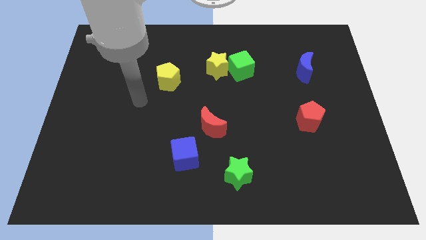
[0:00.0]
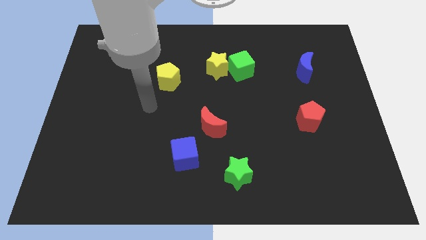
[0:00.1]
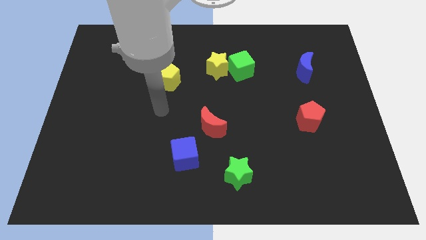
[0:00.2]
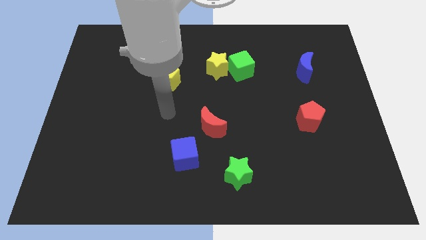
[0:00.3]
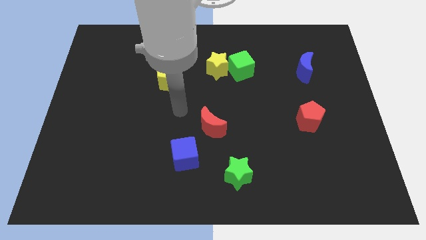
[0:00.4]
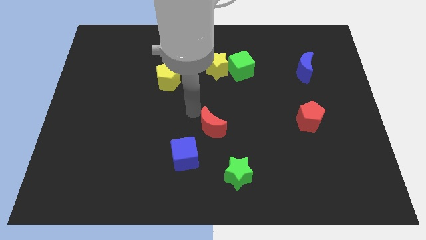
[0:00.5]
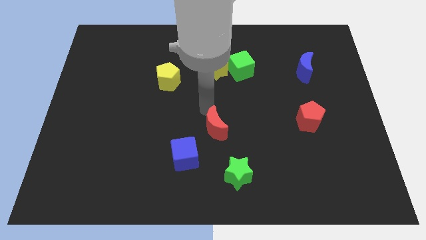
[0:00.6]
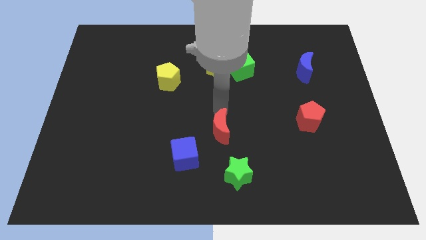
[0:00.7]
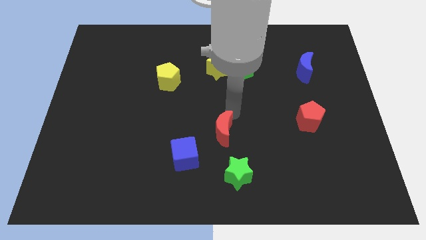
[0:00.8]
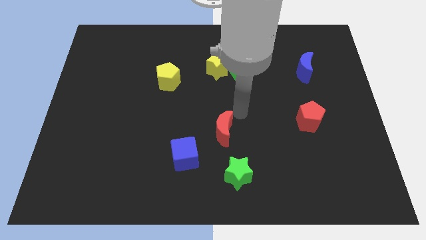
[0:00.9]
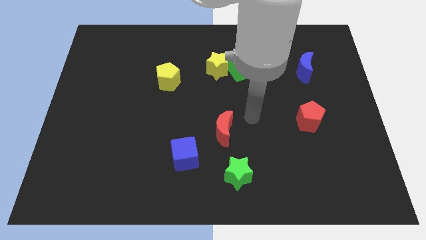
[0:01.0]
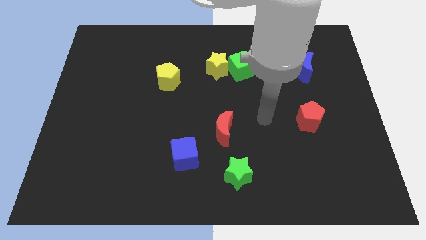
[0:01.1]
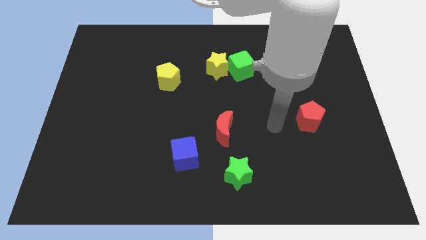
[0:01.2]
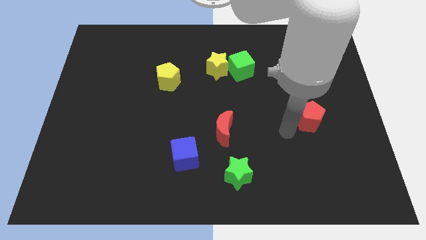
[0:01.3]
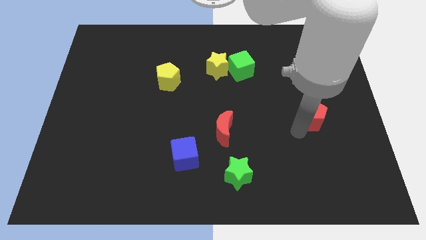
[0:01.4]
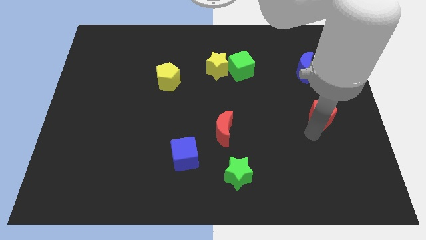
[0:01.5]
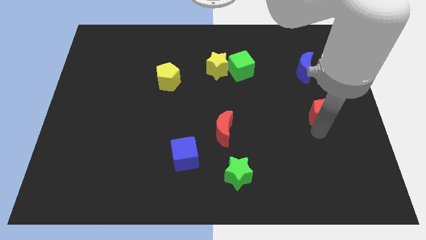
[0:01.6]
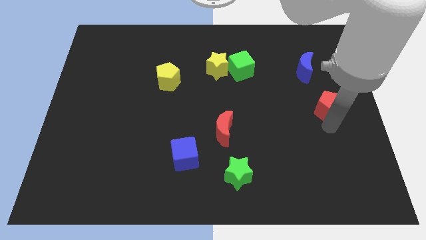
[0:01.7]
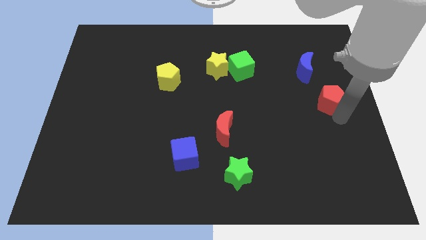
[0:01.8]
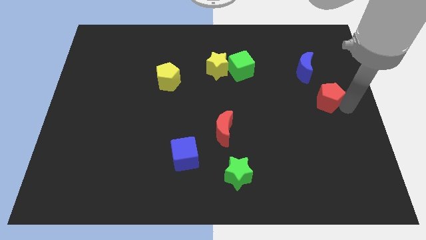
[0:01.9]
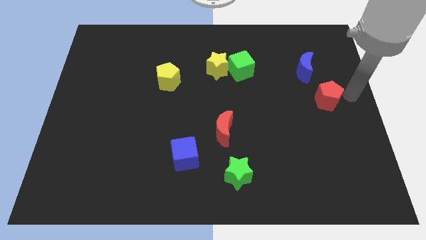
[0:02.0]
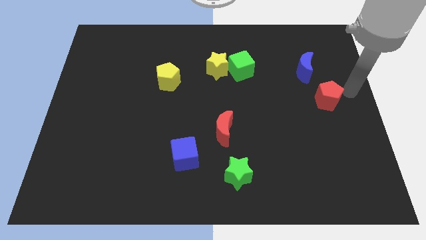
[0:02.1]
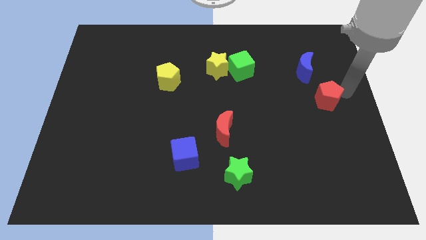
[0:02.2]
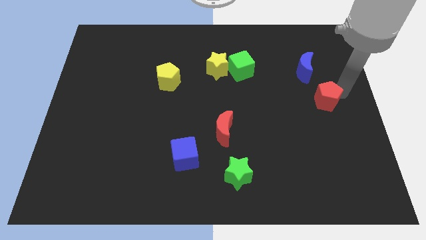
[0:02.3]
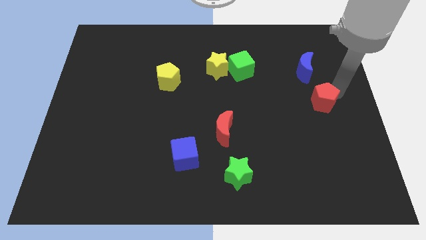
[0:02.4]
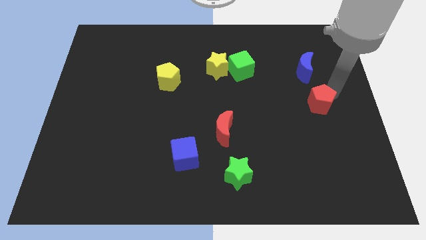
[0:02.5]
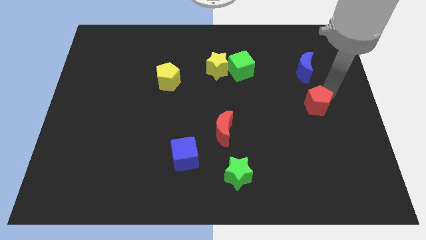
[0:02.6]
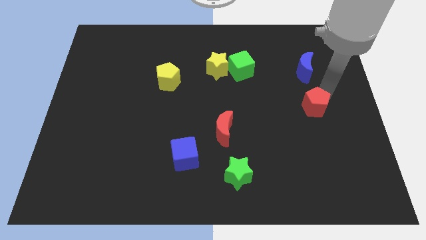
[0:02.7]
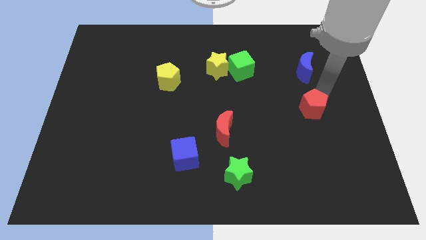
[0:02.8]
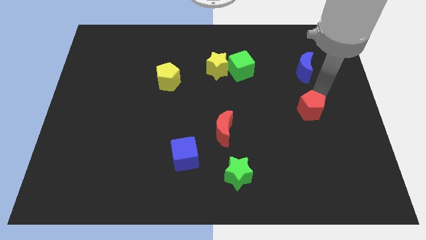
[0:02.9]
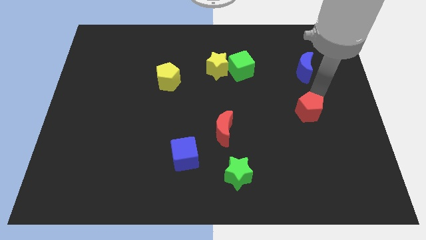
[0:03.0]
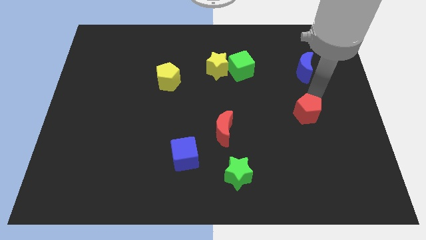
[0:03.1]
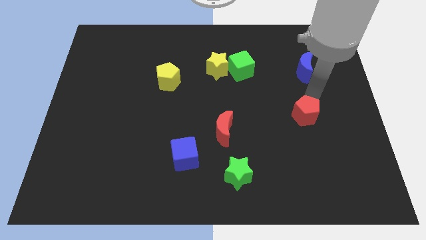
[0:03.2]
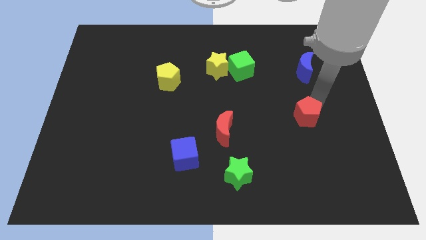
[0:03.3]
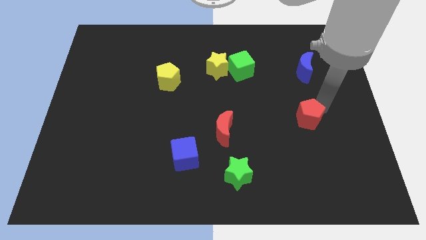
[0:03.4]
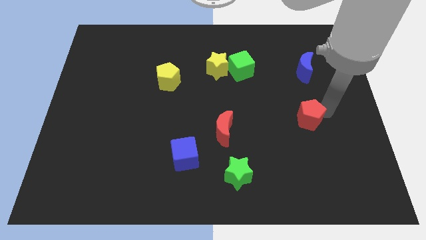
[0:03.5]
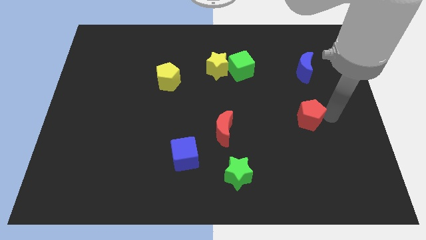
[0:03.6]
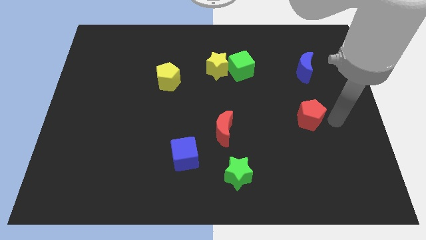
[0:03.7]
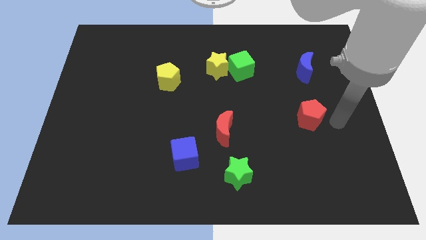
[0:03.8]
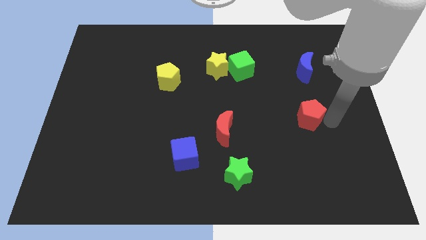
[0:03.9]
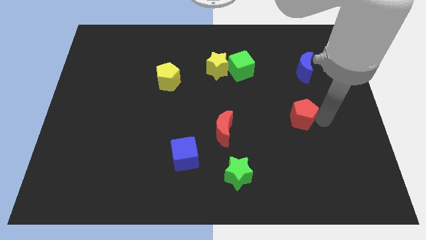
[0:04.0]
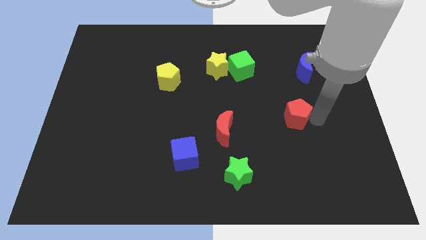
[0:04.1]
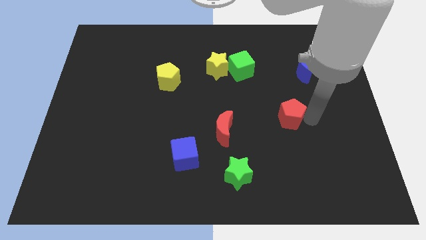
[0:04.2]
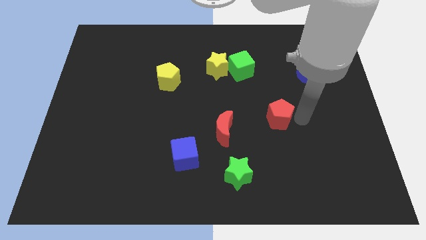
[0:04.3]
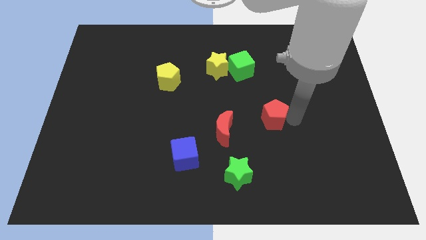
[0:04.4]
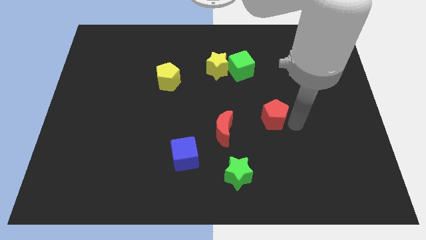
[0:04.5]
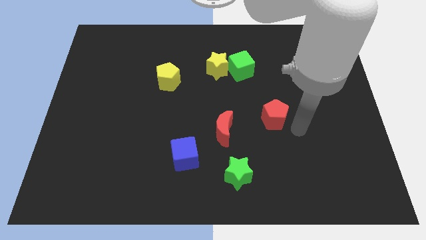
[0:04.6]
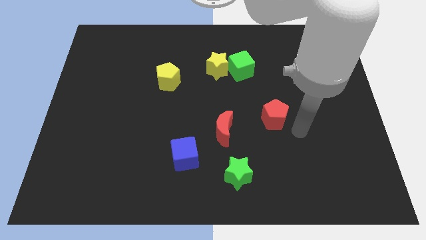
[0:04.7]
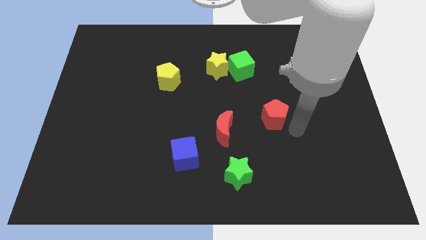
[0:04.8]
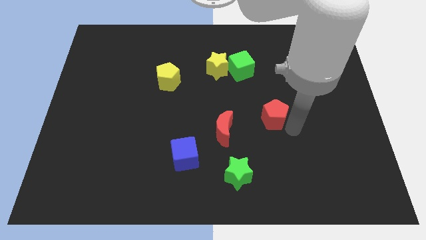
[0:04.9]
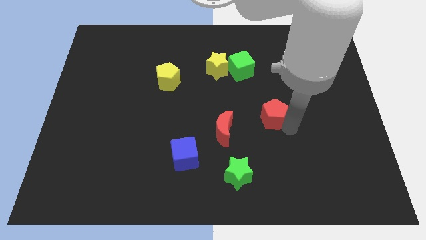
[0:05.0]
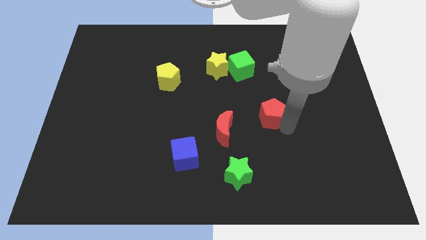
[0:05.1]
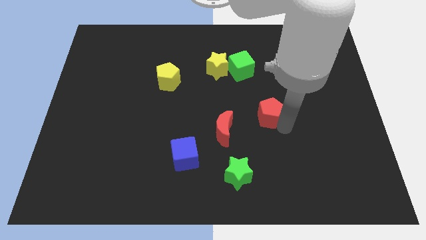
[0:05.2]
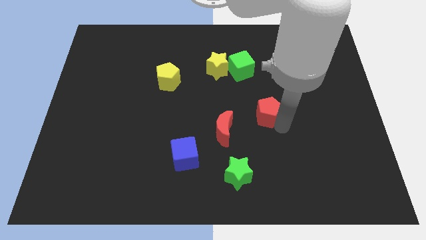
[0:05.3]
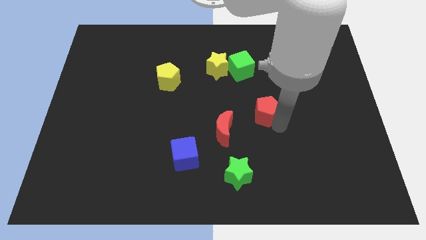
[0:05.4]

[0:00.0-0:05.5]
slide the red pentagon to the middle of the board

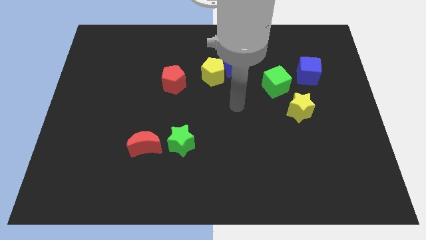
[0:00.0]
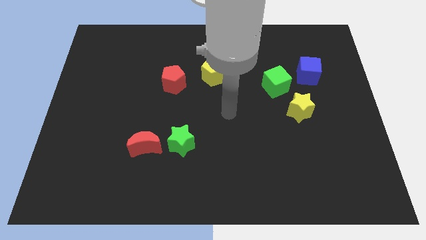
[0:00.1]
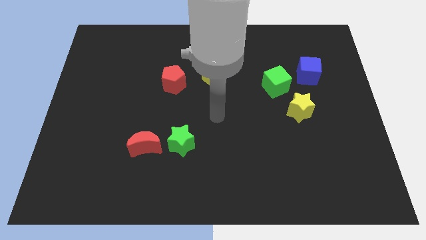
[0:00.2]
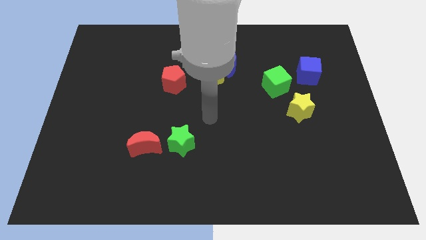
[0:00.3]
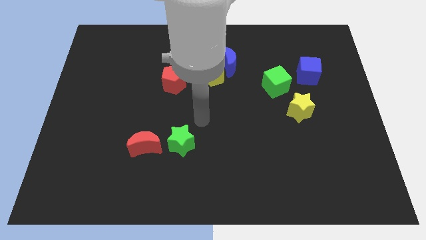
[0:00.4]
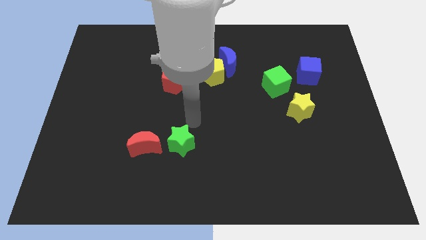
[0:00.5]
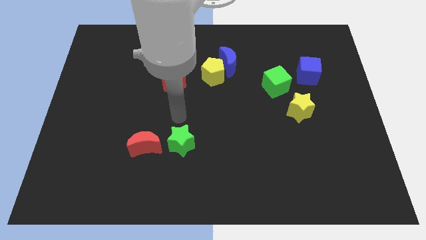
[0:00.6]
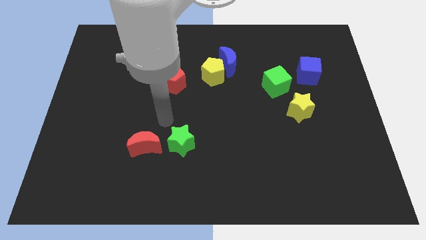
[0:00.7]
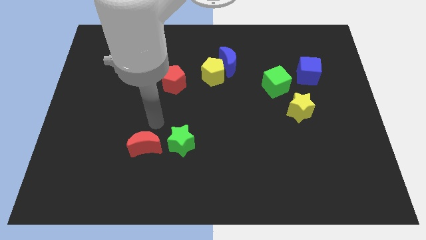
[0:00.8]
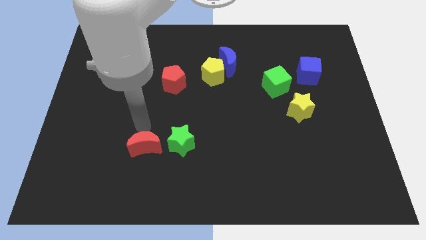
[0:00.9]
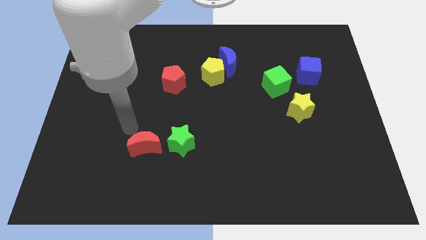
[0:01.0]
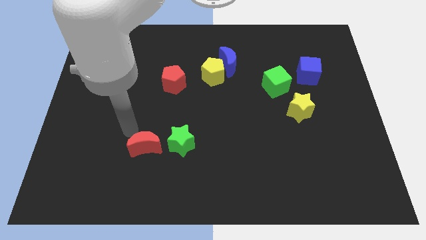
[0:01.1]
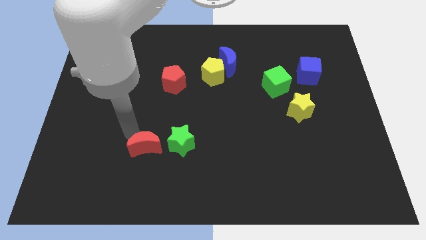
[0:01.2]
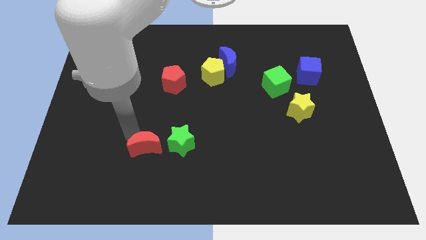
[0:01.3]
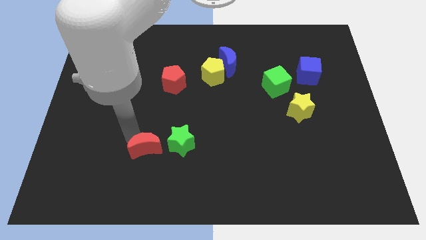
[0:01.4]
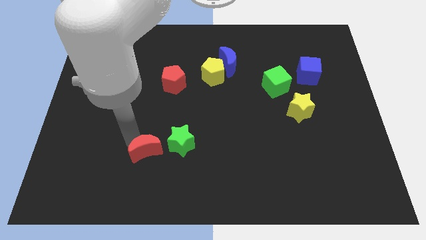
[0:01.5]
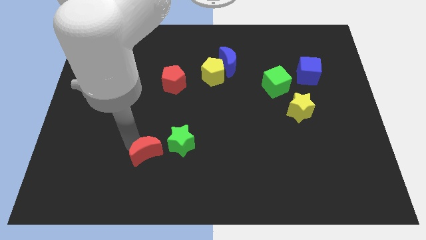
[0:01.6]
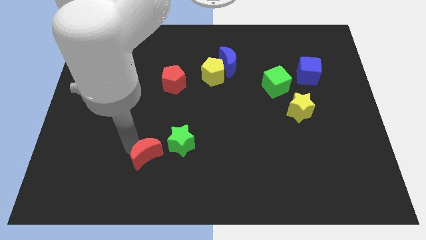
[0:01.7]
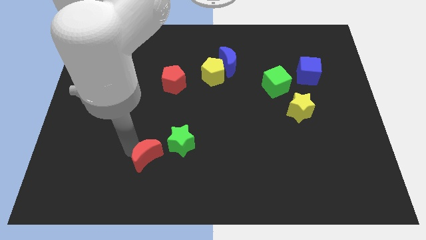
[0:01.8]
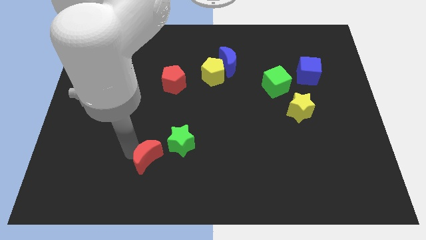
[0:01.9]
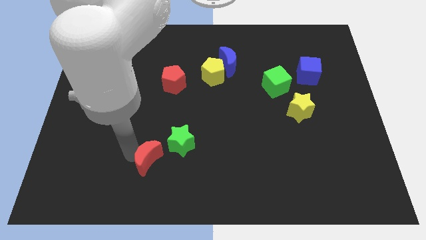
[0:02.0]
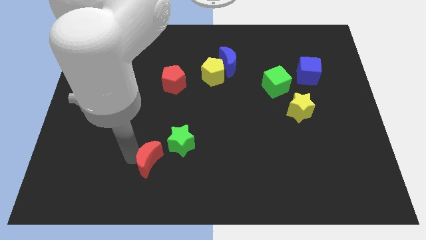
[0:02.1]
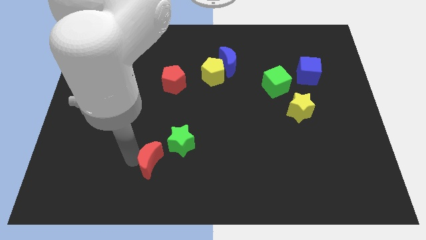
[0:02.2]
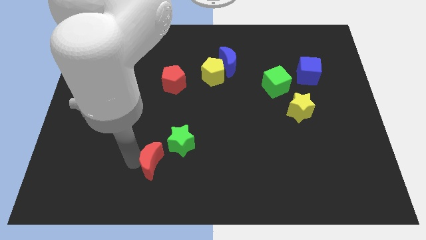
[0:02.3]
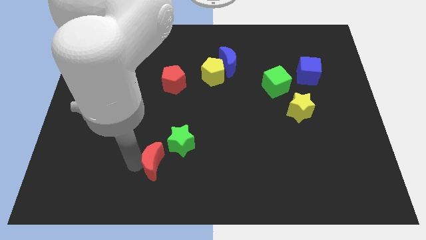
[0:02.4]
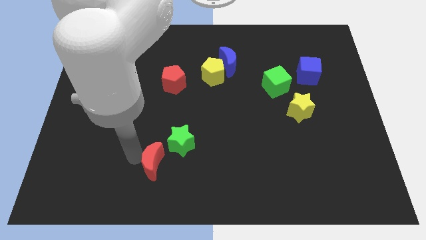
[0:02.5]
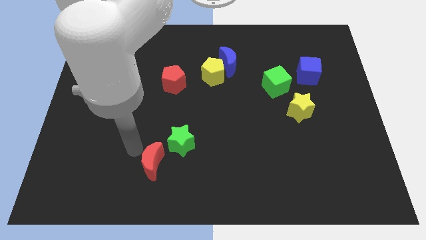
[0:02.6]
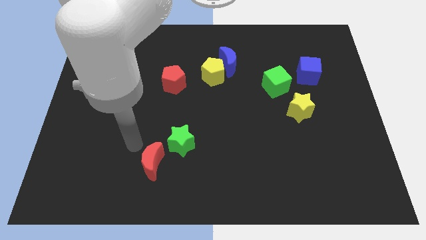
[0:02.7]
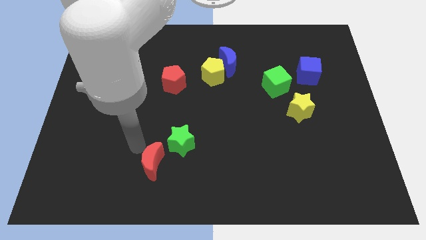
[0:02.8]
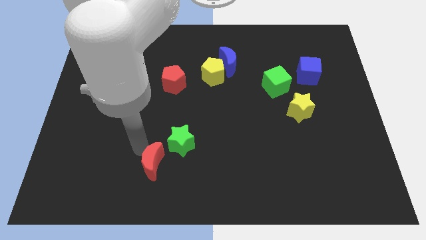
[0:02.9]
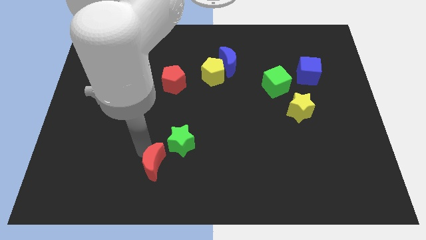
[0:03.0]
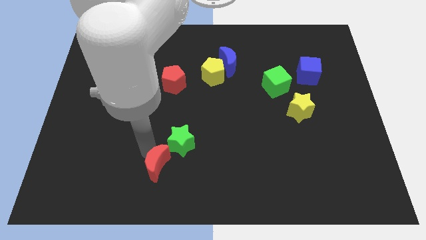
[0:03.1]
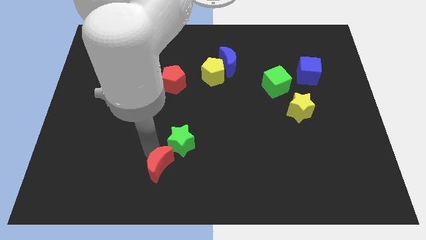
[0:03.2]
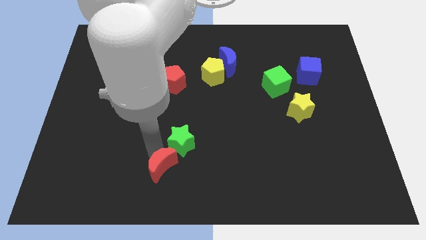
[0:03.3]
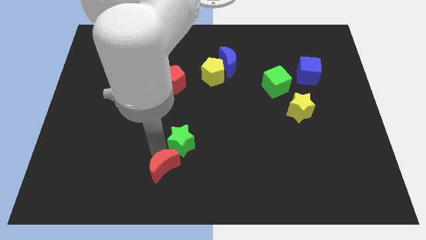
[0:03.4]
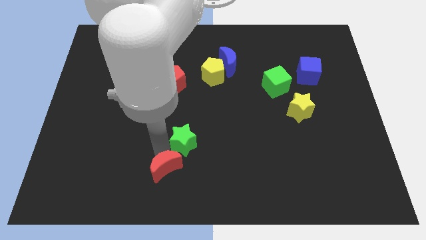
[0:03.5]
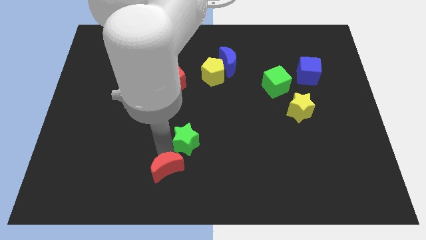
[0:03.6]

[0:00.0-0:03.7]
slide the red moon to the bottom side
